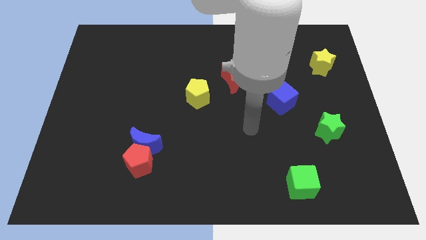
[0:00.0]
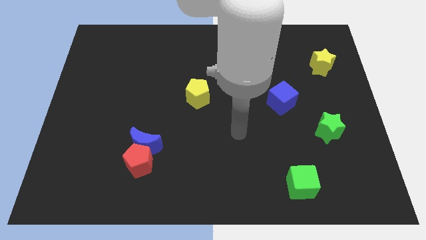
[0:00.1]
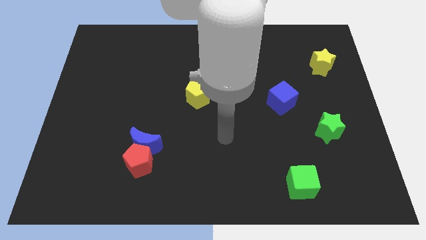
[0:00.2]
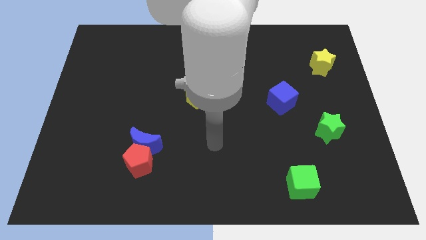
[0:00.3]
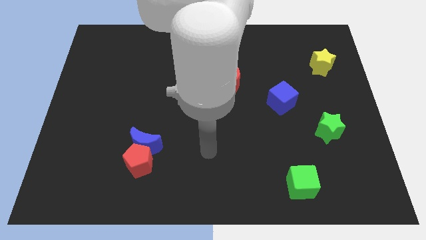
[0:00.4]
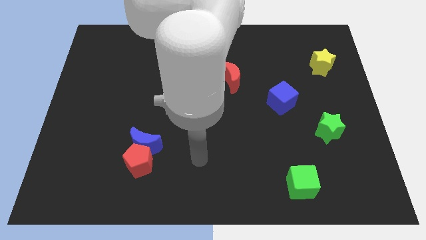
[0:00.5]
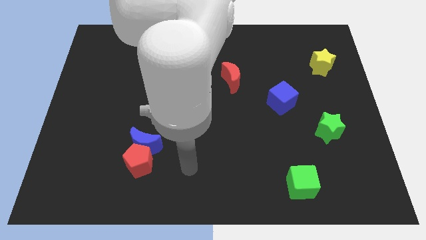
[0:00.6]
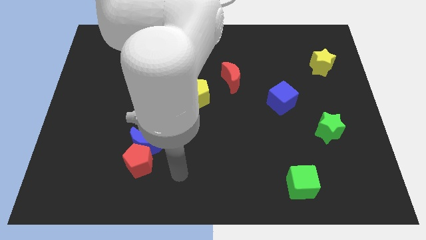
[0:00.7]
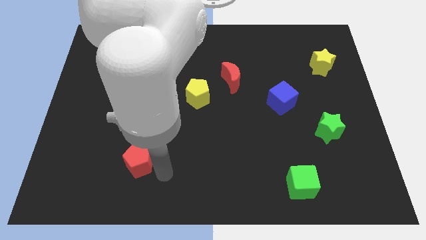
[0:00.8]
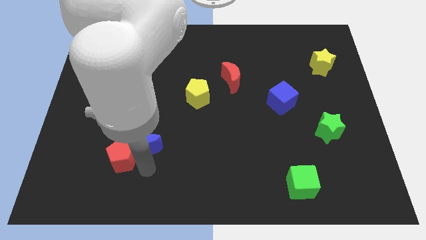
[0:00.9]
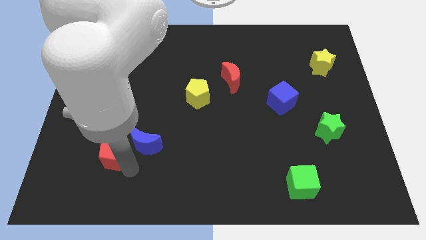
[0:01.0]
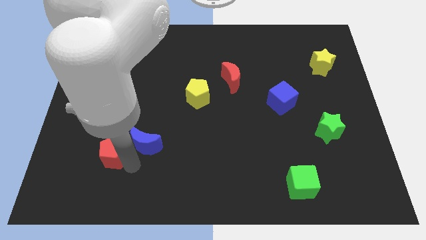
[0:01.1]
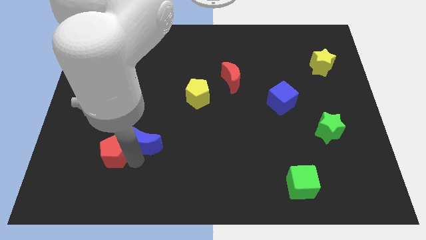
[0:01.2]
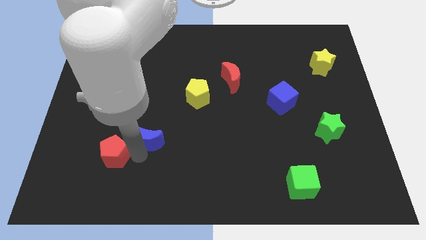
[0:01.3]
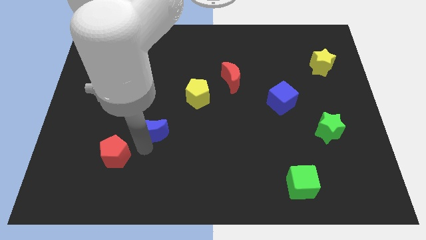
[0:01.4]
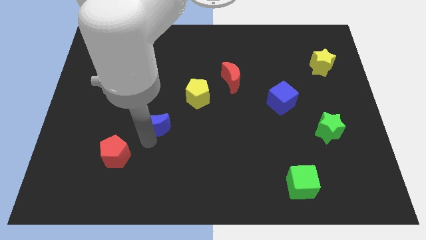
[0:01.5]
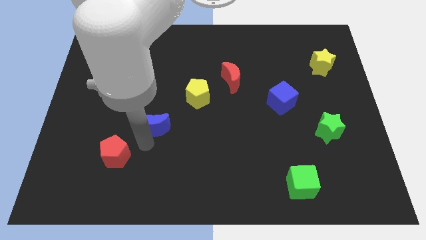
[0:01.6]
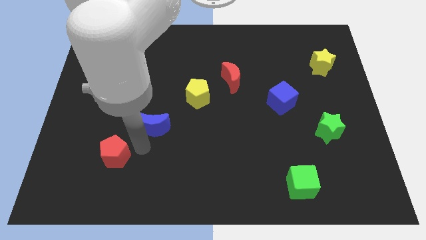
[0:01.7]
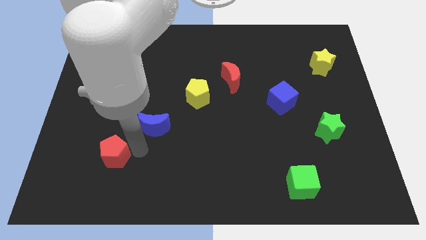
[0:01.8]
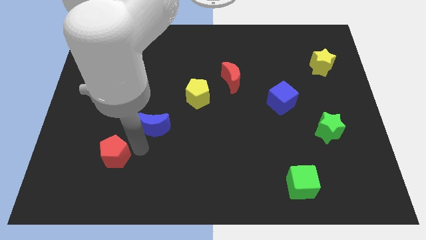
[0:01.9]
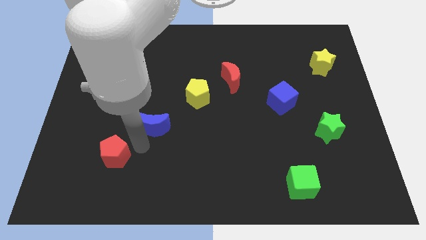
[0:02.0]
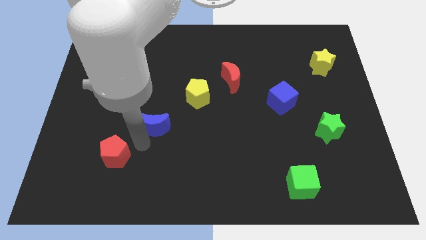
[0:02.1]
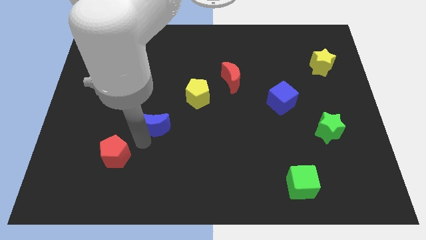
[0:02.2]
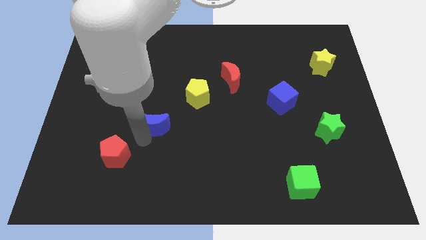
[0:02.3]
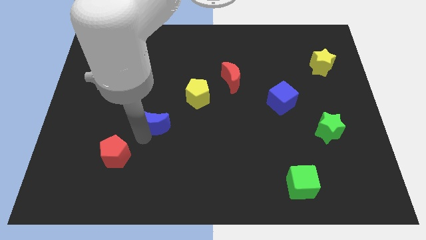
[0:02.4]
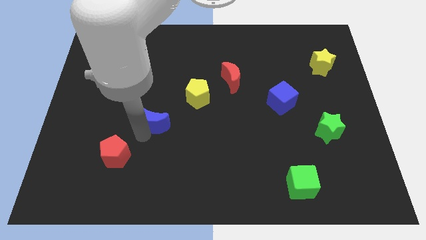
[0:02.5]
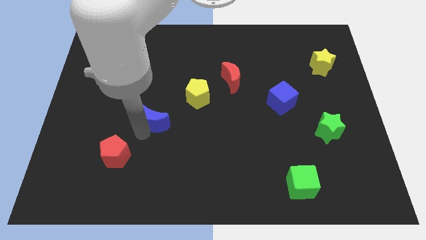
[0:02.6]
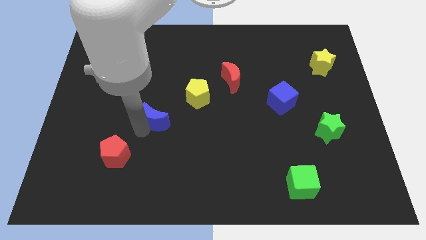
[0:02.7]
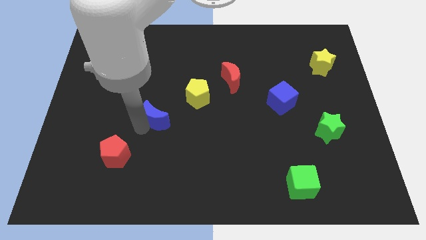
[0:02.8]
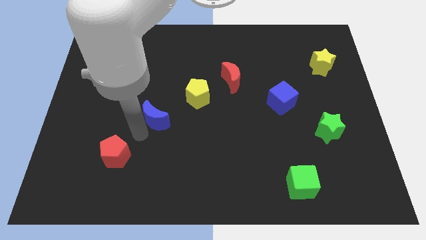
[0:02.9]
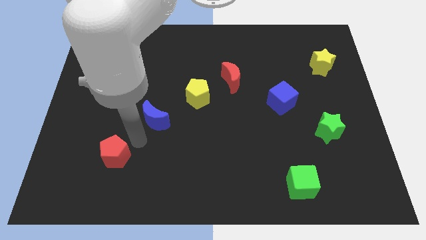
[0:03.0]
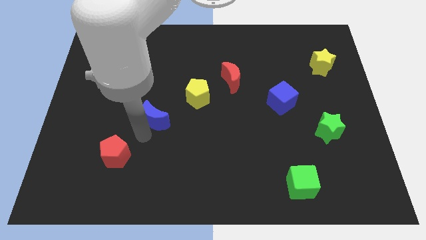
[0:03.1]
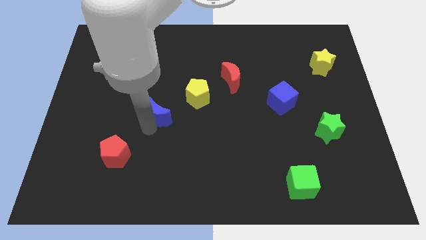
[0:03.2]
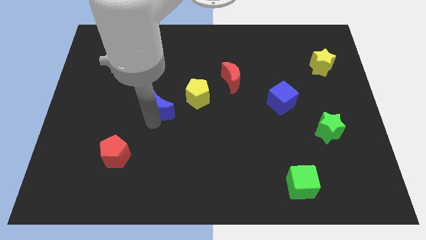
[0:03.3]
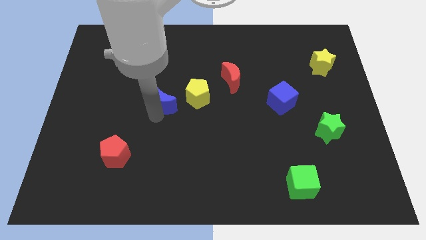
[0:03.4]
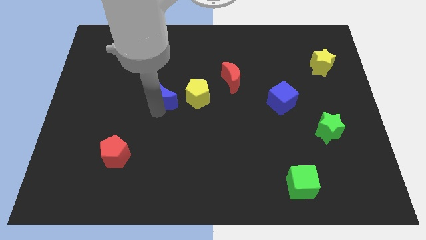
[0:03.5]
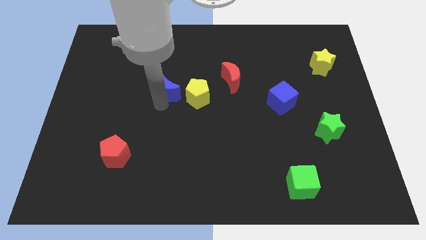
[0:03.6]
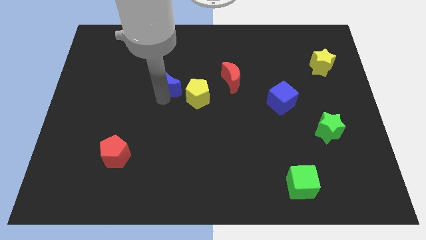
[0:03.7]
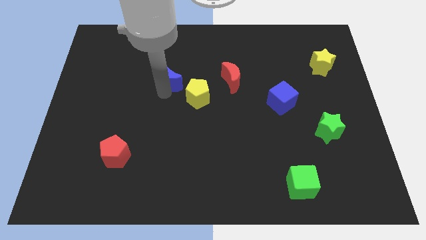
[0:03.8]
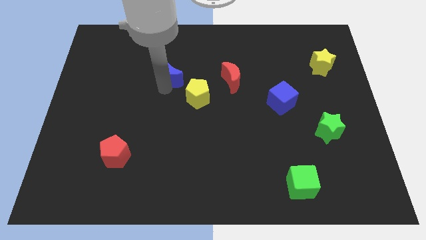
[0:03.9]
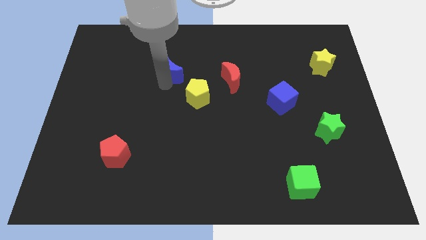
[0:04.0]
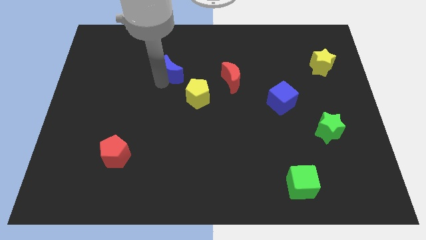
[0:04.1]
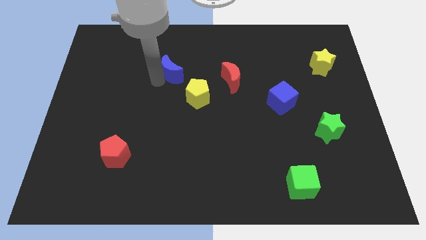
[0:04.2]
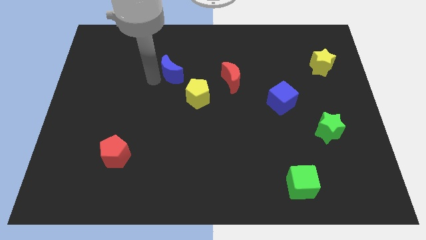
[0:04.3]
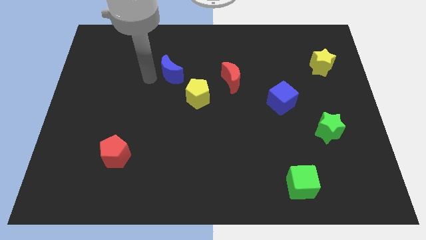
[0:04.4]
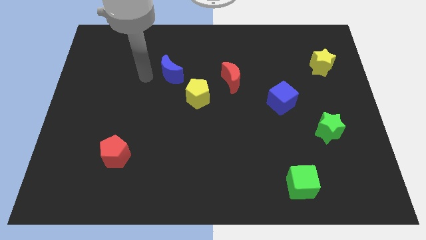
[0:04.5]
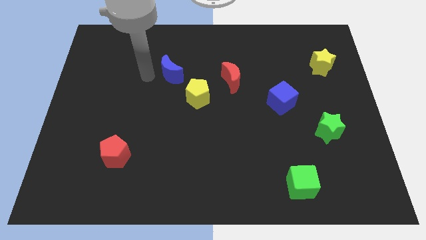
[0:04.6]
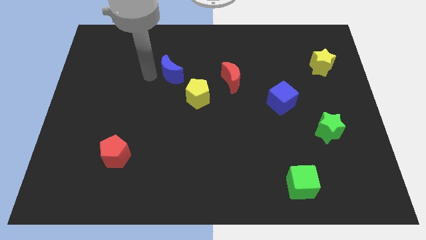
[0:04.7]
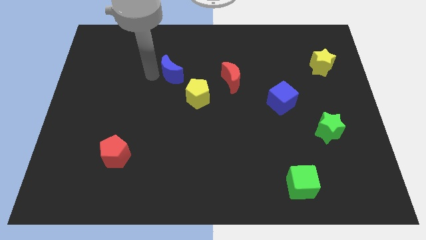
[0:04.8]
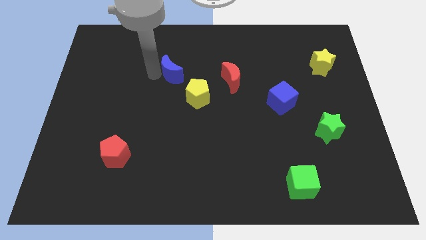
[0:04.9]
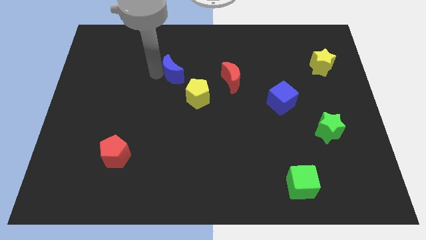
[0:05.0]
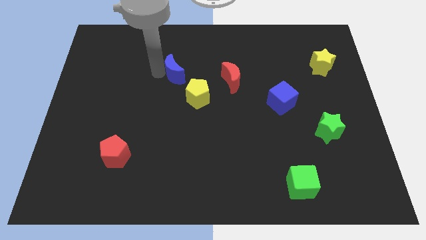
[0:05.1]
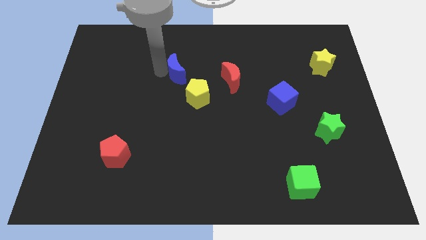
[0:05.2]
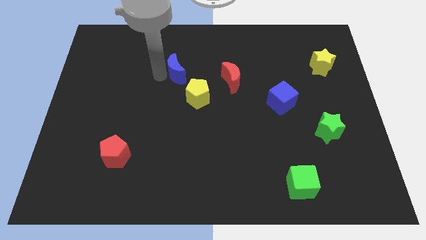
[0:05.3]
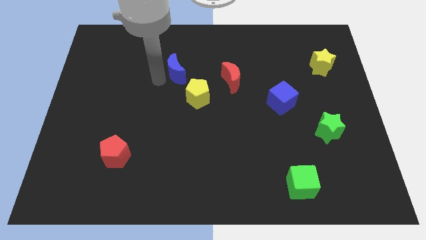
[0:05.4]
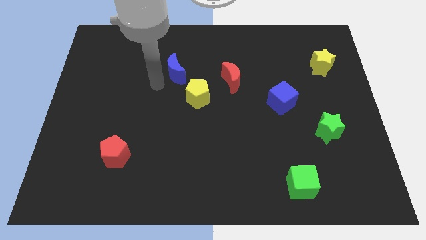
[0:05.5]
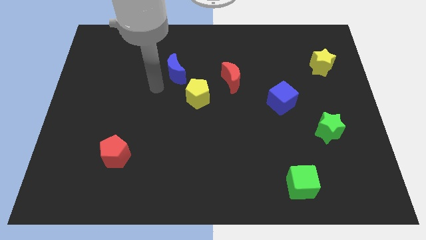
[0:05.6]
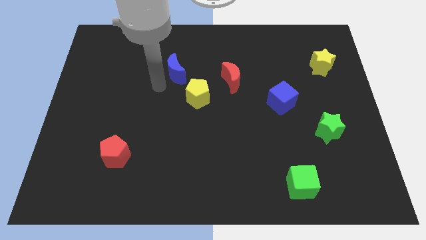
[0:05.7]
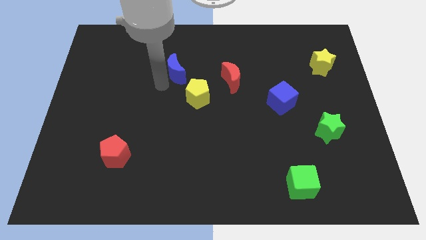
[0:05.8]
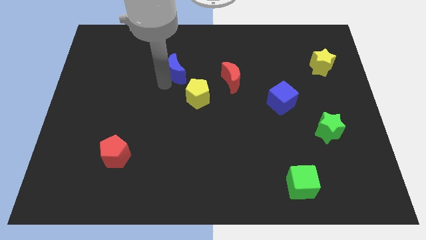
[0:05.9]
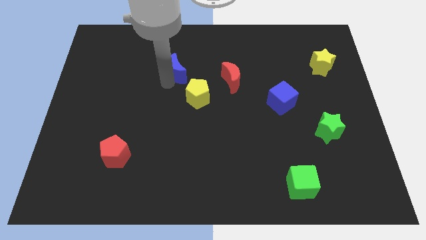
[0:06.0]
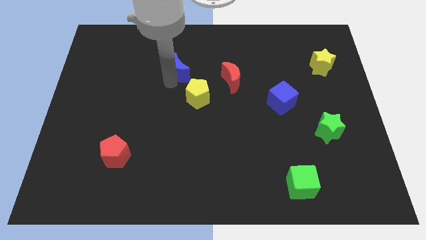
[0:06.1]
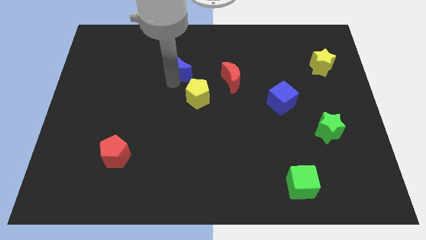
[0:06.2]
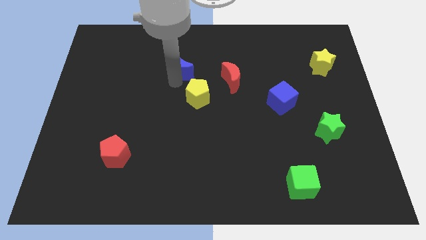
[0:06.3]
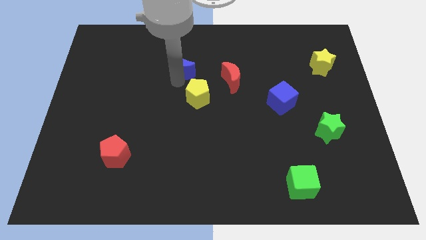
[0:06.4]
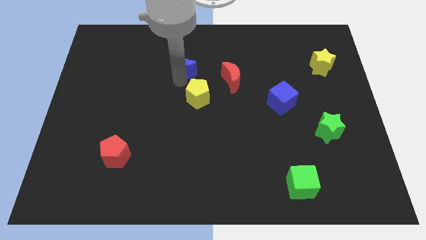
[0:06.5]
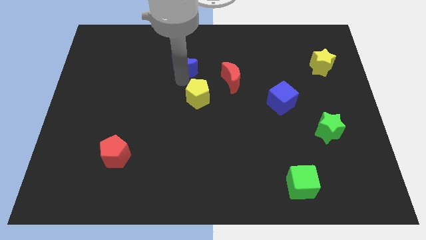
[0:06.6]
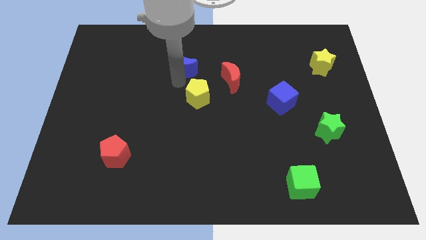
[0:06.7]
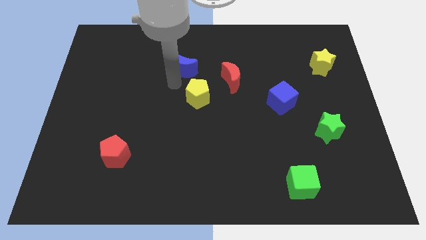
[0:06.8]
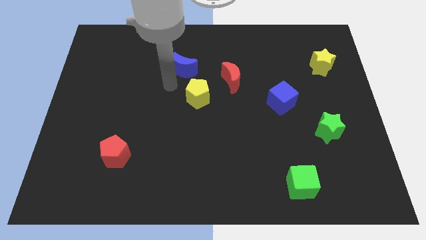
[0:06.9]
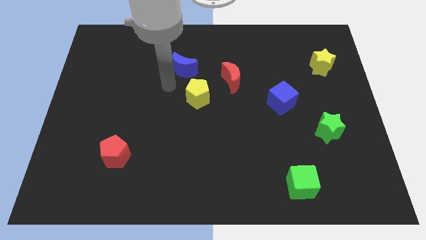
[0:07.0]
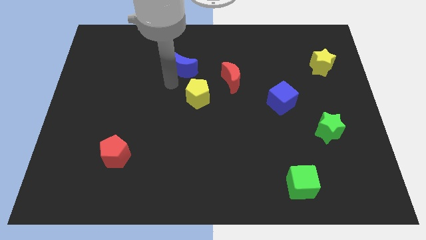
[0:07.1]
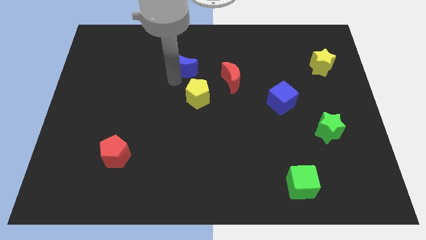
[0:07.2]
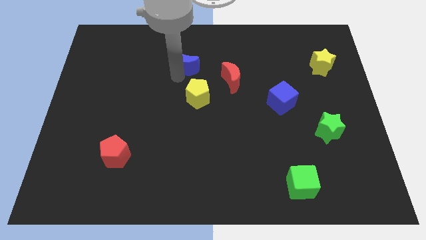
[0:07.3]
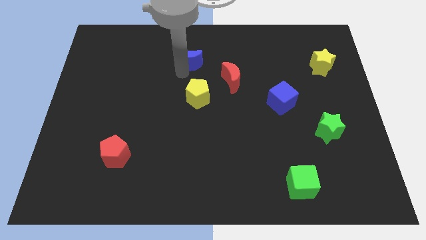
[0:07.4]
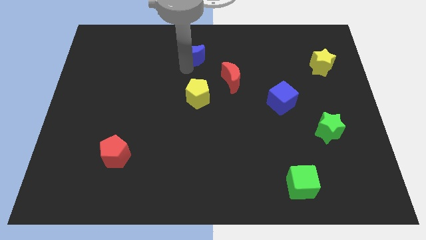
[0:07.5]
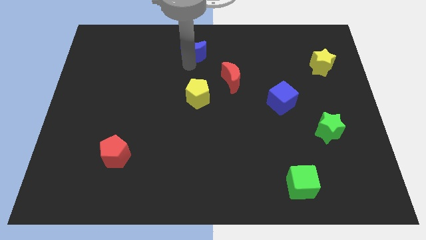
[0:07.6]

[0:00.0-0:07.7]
push the blue moon to the top side
